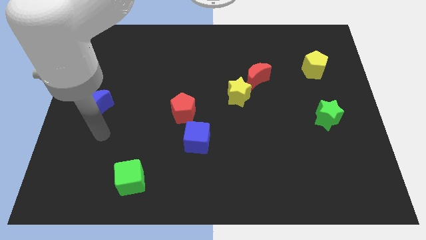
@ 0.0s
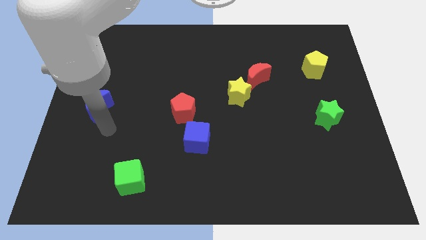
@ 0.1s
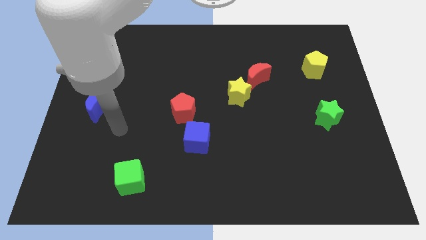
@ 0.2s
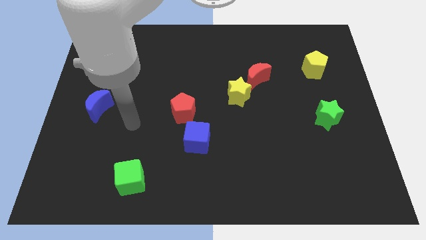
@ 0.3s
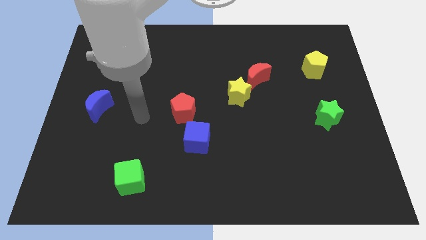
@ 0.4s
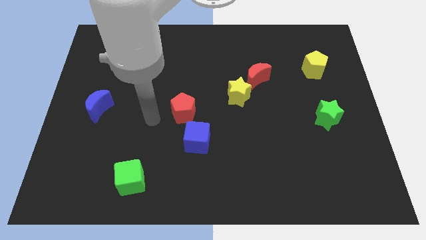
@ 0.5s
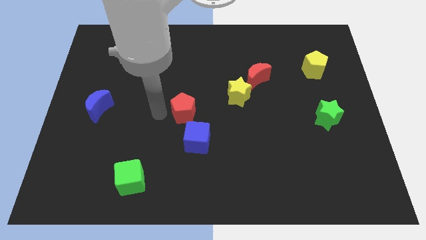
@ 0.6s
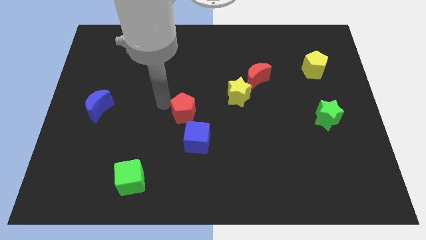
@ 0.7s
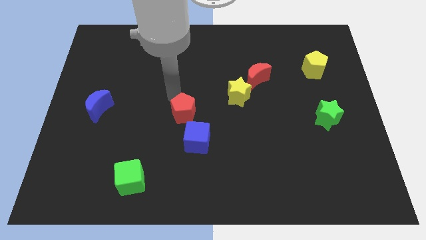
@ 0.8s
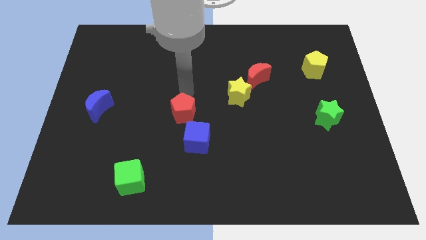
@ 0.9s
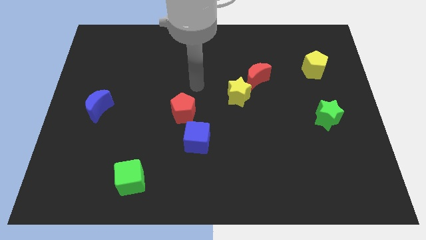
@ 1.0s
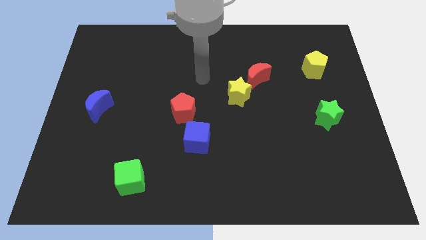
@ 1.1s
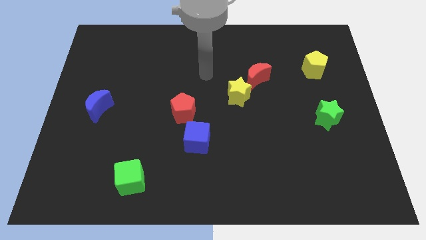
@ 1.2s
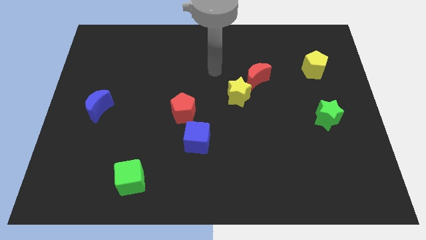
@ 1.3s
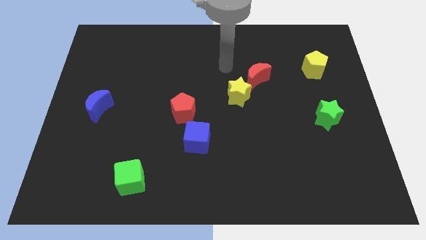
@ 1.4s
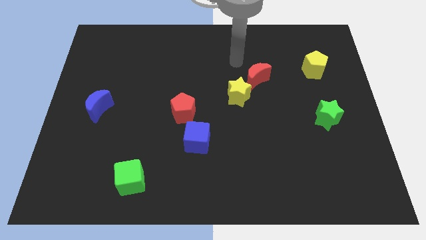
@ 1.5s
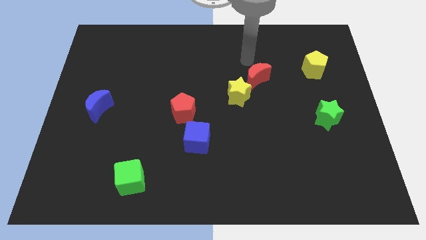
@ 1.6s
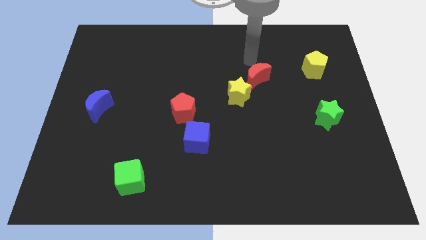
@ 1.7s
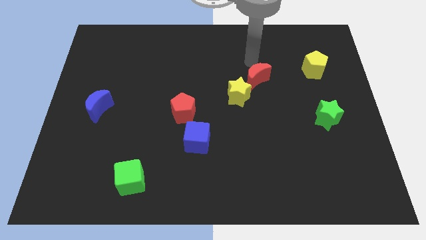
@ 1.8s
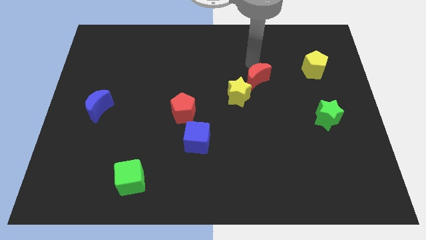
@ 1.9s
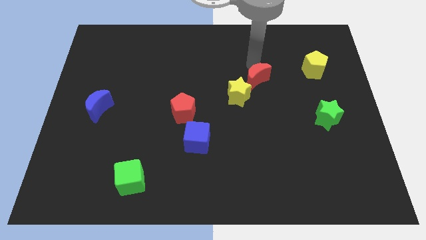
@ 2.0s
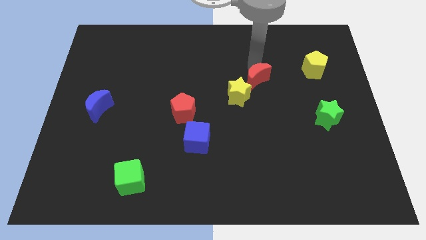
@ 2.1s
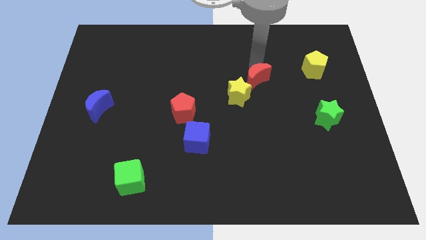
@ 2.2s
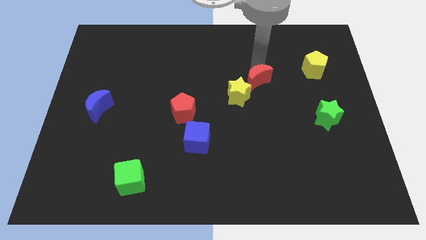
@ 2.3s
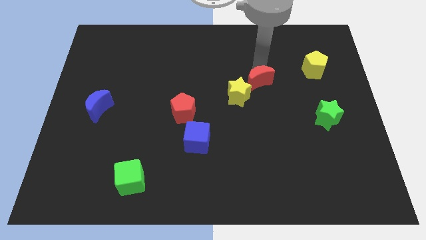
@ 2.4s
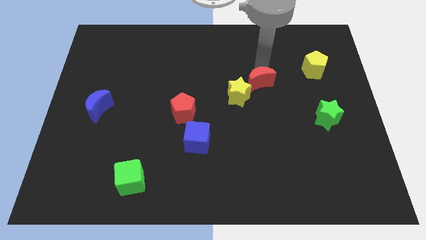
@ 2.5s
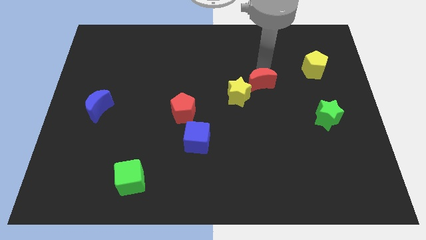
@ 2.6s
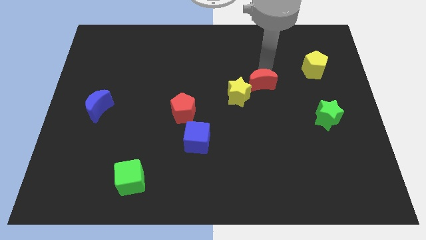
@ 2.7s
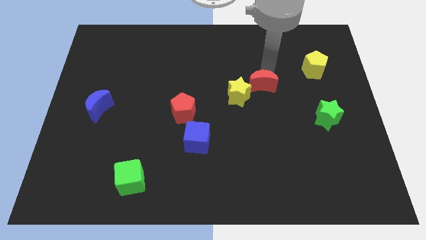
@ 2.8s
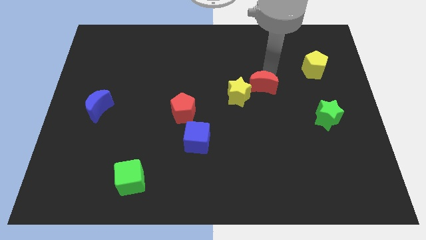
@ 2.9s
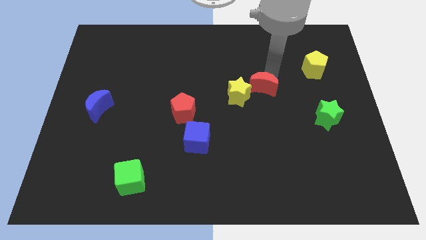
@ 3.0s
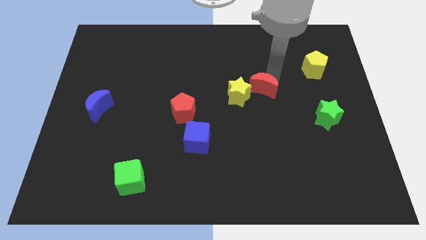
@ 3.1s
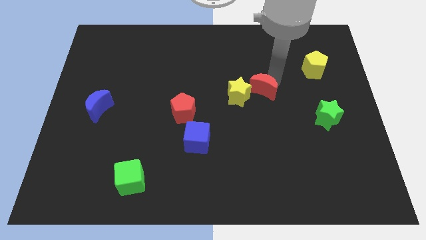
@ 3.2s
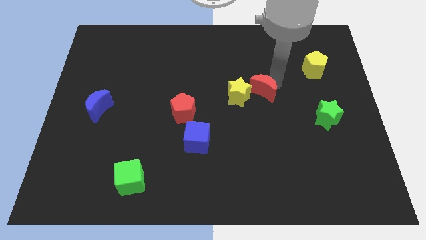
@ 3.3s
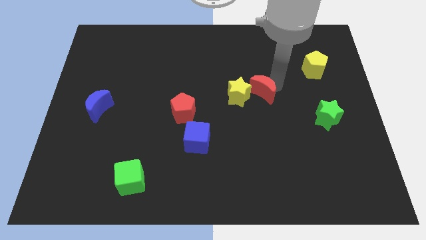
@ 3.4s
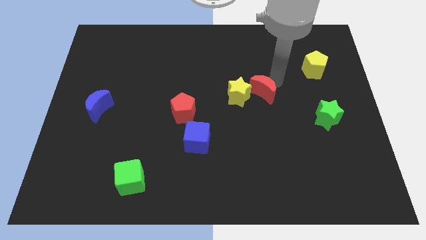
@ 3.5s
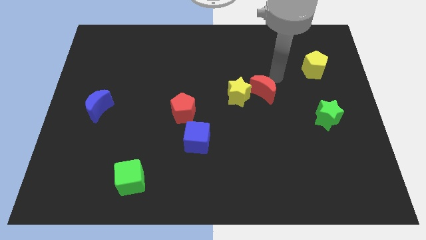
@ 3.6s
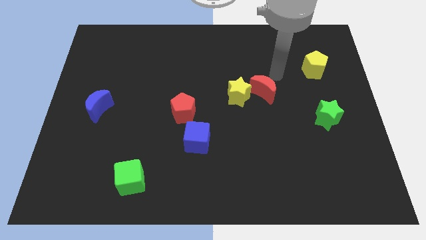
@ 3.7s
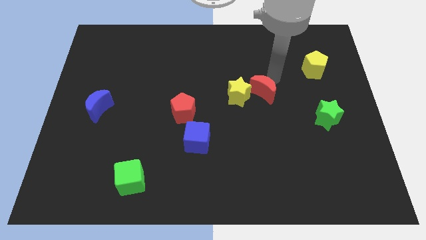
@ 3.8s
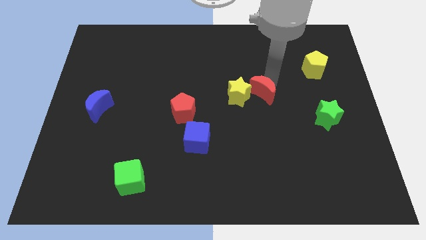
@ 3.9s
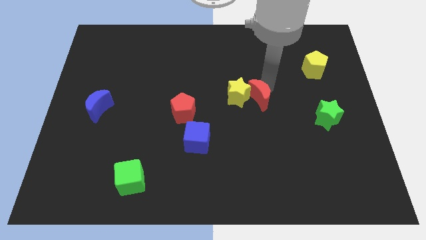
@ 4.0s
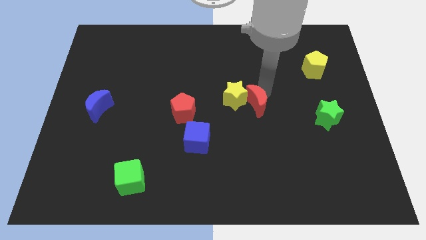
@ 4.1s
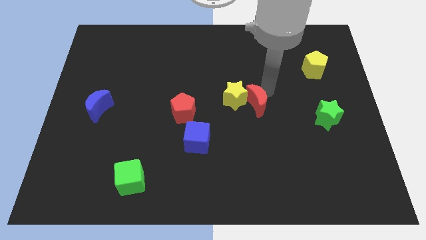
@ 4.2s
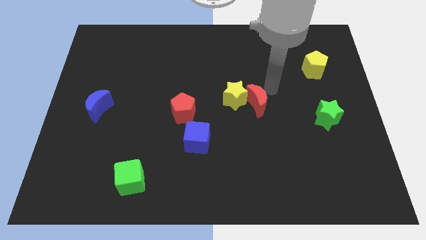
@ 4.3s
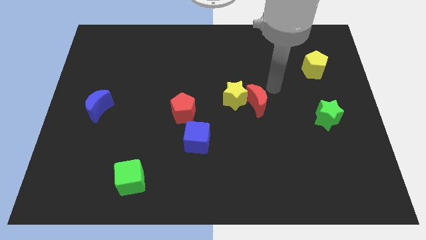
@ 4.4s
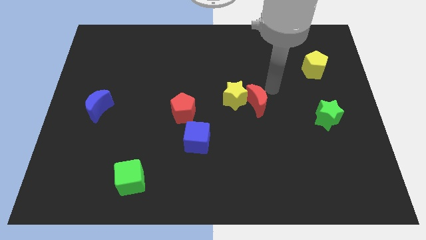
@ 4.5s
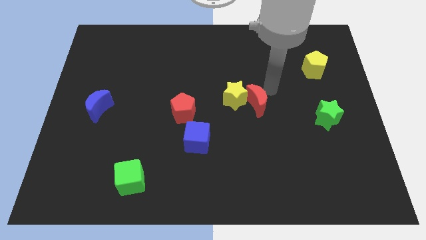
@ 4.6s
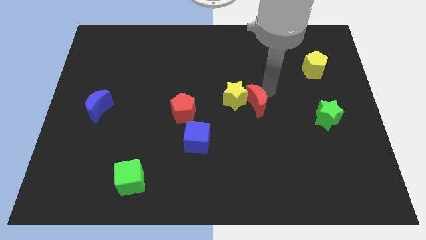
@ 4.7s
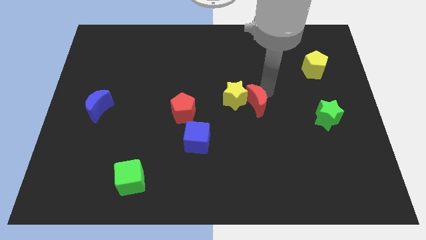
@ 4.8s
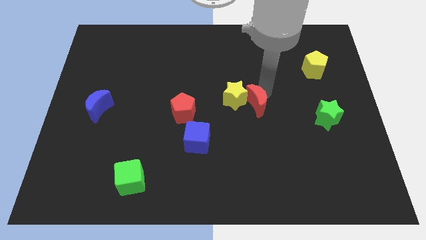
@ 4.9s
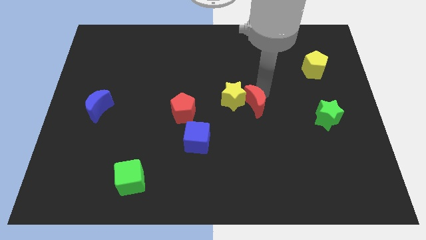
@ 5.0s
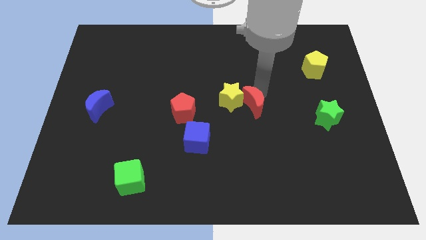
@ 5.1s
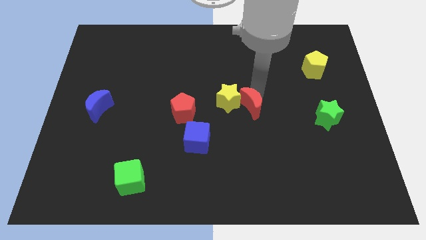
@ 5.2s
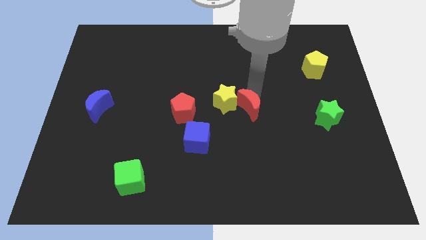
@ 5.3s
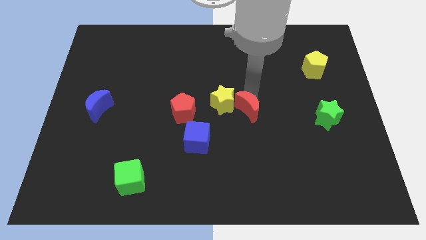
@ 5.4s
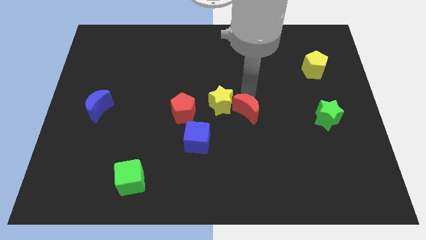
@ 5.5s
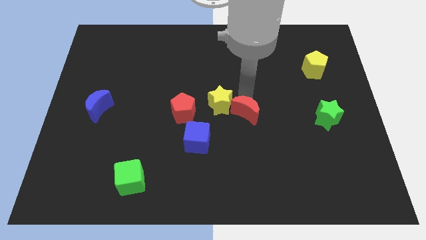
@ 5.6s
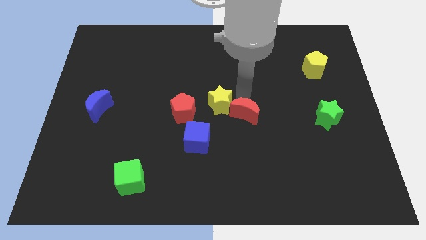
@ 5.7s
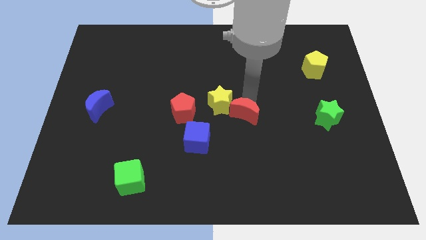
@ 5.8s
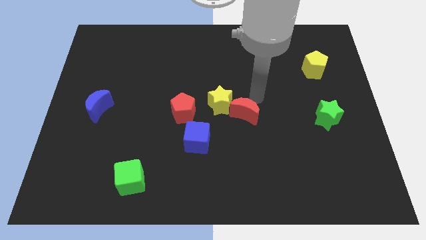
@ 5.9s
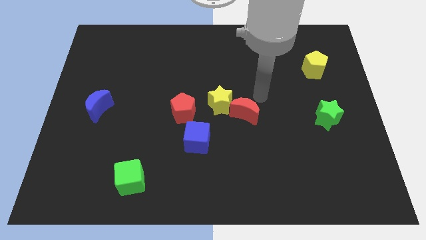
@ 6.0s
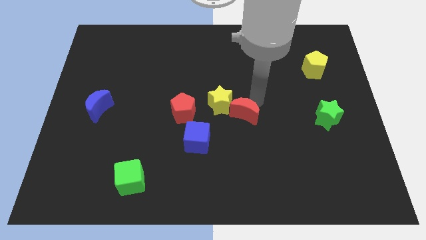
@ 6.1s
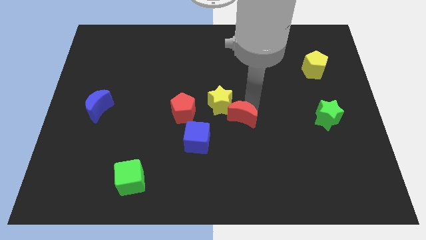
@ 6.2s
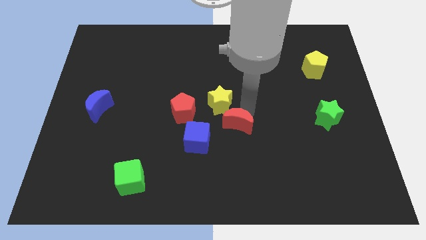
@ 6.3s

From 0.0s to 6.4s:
put the red moon below the yellow star

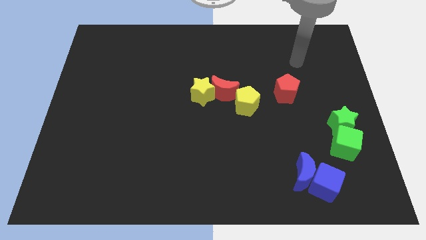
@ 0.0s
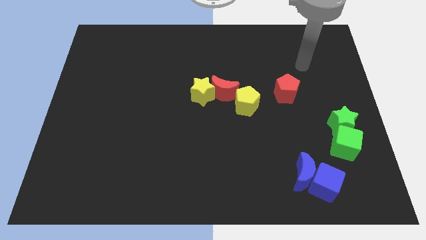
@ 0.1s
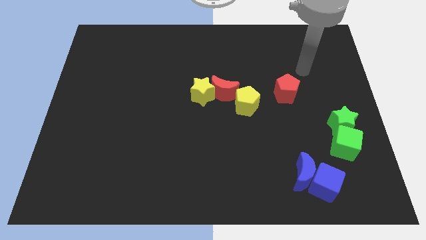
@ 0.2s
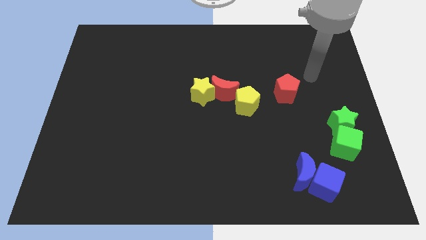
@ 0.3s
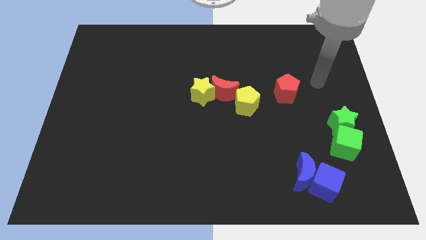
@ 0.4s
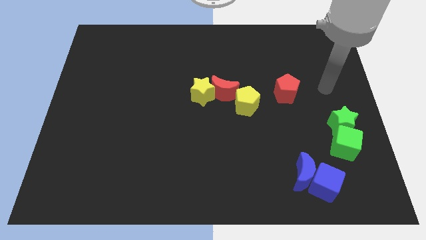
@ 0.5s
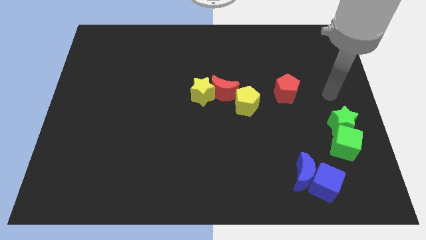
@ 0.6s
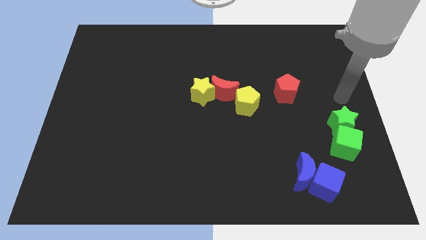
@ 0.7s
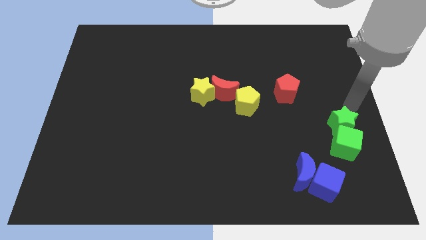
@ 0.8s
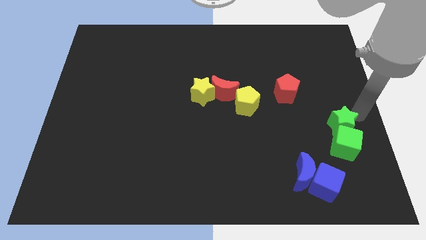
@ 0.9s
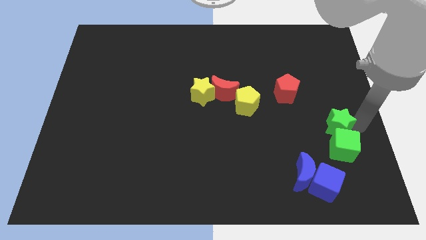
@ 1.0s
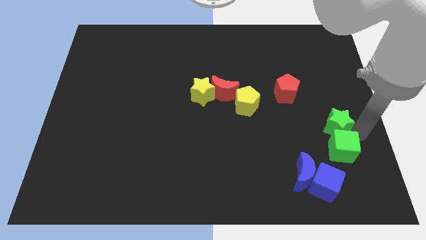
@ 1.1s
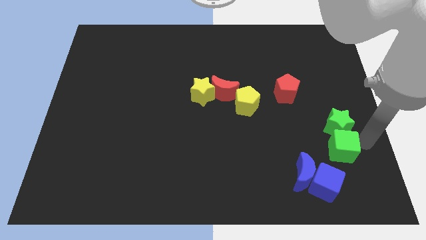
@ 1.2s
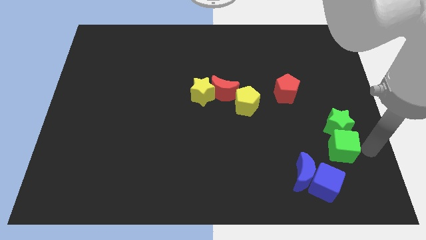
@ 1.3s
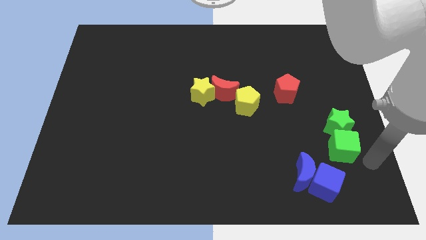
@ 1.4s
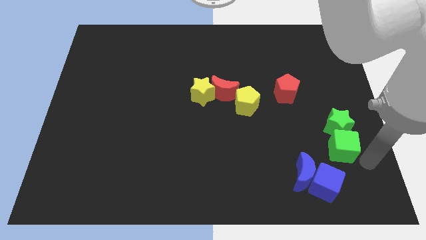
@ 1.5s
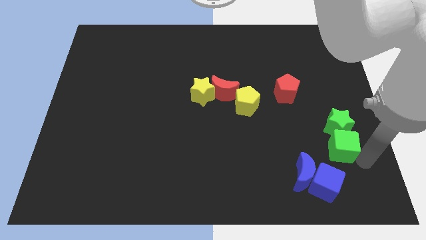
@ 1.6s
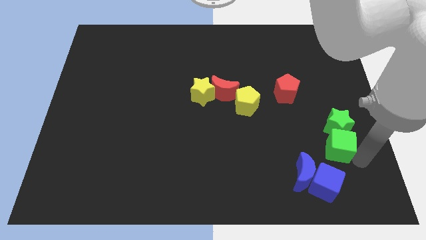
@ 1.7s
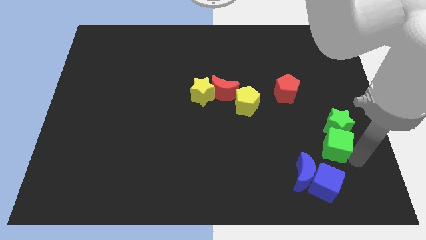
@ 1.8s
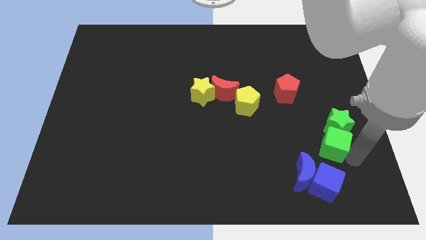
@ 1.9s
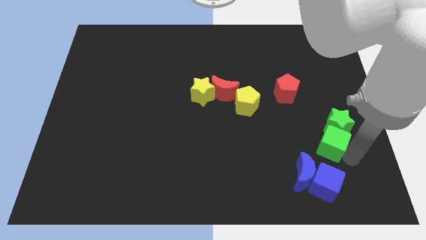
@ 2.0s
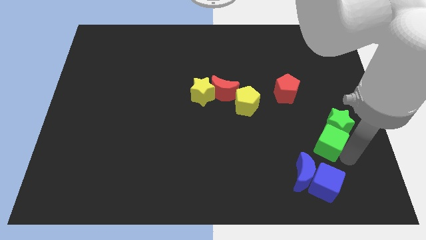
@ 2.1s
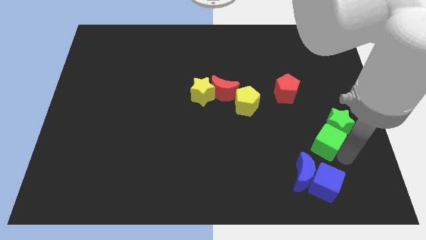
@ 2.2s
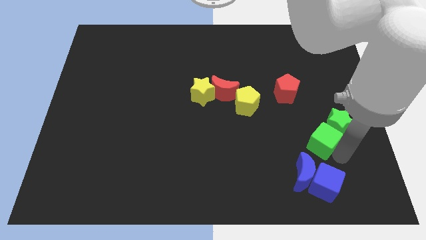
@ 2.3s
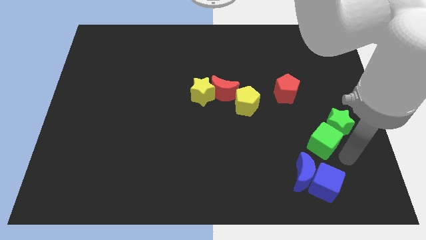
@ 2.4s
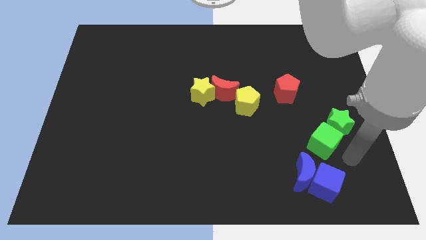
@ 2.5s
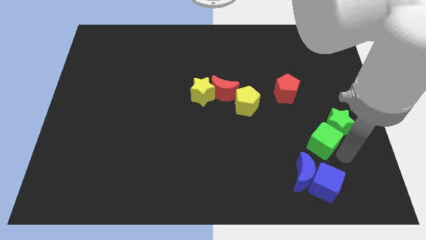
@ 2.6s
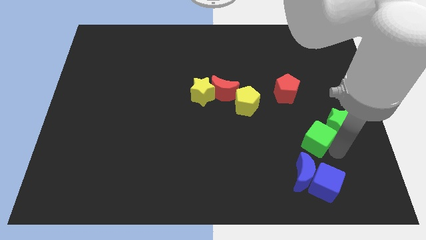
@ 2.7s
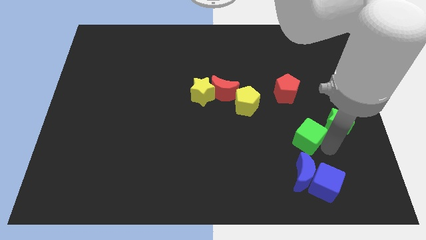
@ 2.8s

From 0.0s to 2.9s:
push the green cube below the red pentagon
